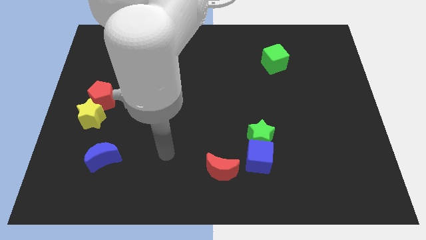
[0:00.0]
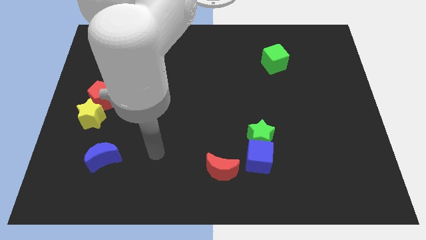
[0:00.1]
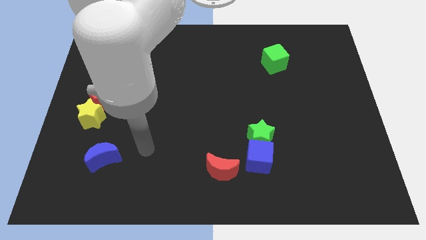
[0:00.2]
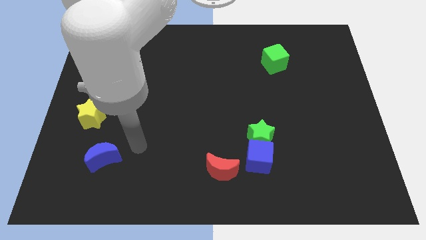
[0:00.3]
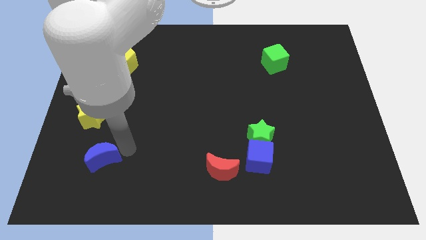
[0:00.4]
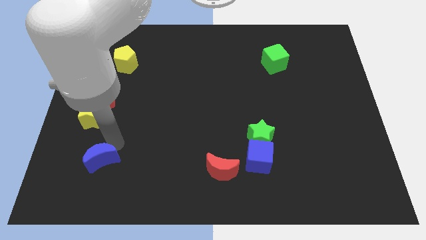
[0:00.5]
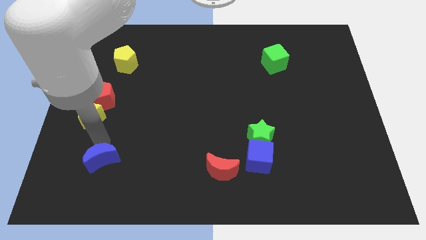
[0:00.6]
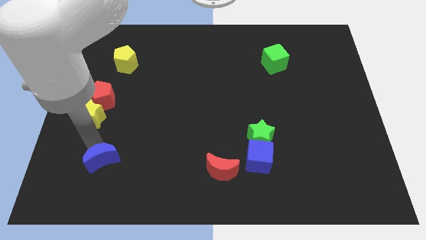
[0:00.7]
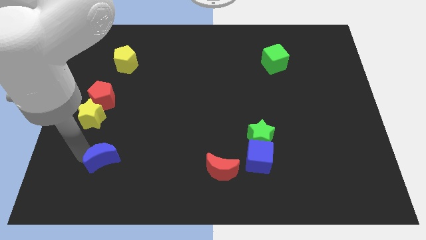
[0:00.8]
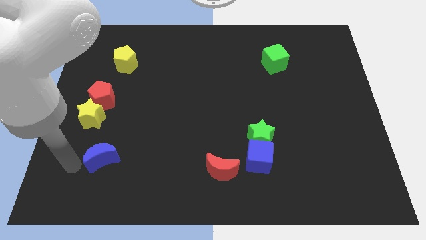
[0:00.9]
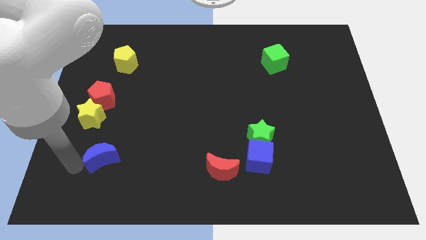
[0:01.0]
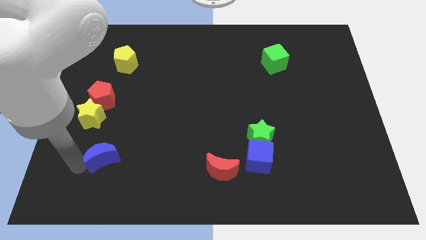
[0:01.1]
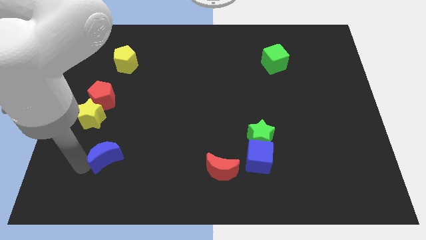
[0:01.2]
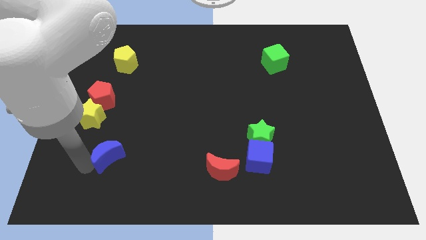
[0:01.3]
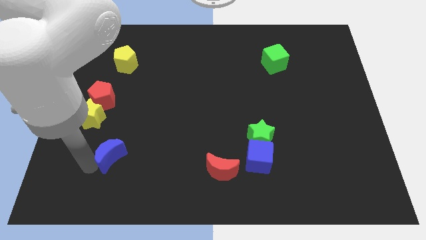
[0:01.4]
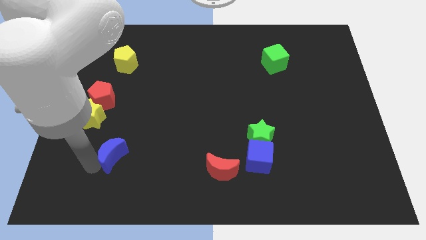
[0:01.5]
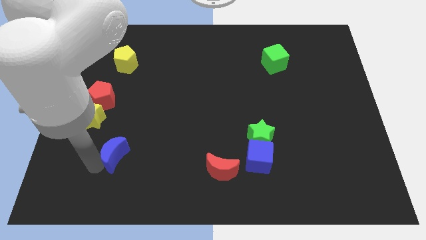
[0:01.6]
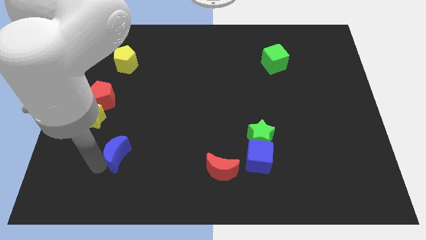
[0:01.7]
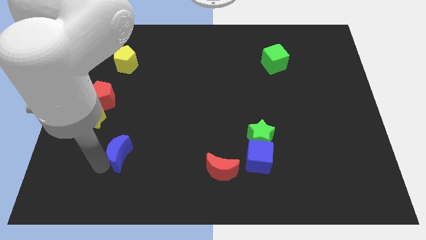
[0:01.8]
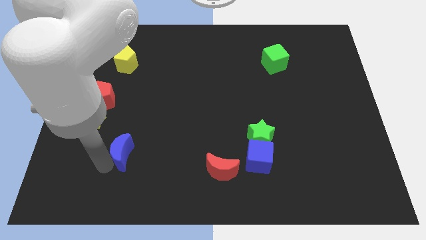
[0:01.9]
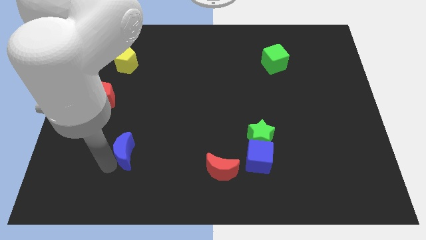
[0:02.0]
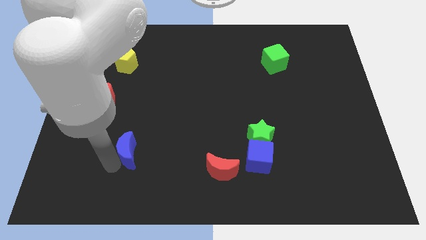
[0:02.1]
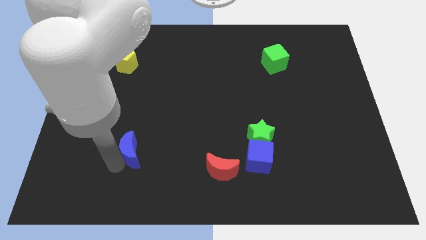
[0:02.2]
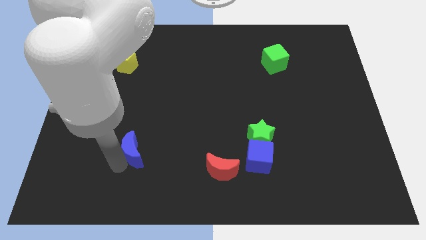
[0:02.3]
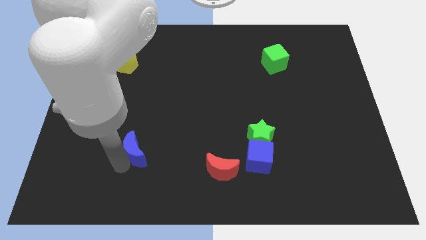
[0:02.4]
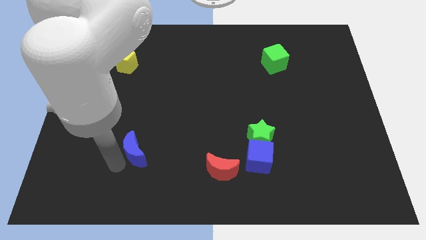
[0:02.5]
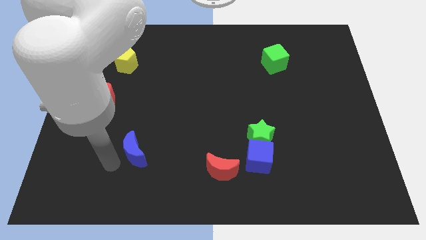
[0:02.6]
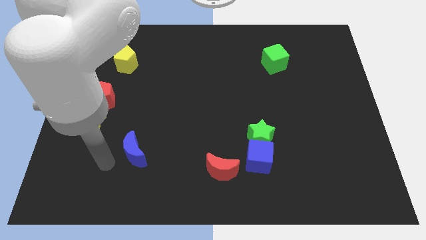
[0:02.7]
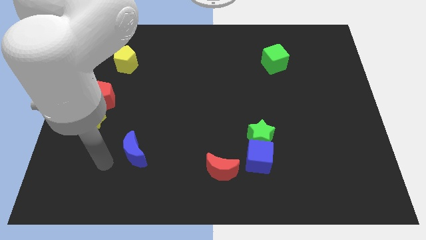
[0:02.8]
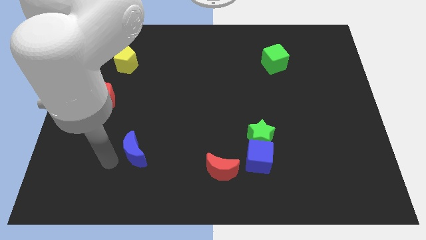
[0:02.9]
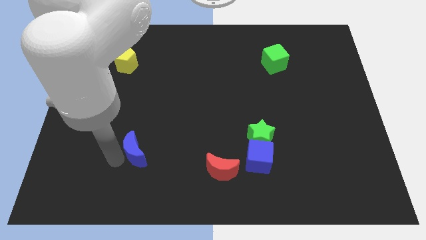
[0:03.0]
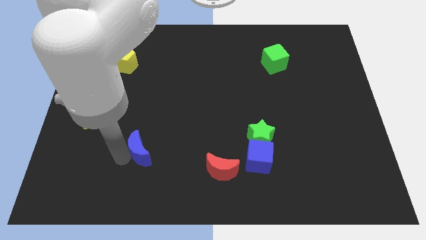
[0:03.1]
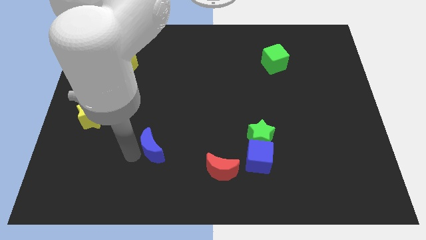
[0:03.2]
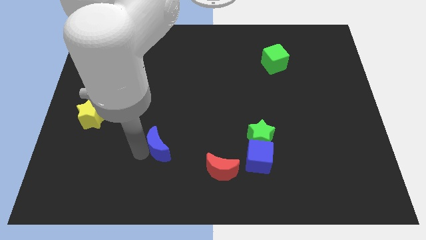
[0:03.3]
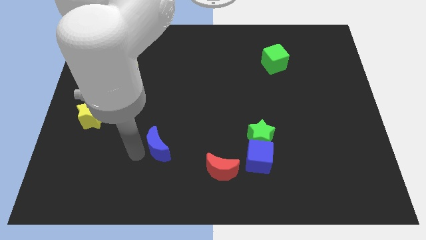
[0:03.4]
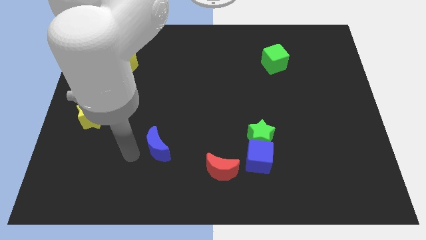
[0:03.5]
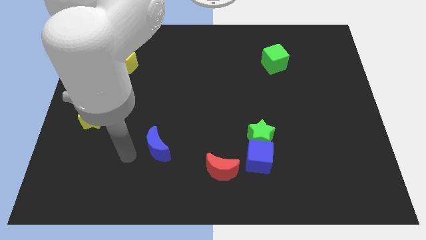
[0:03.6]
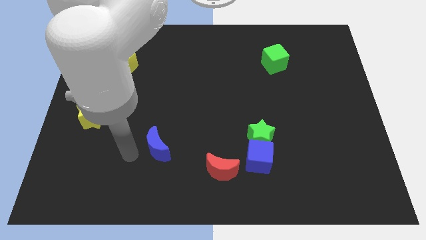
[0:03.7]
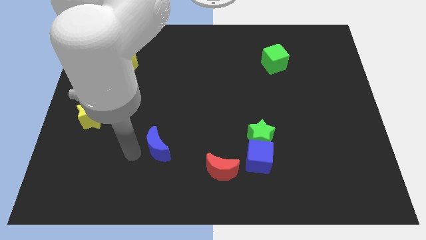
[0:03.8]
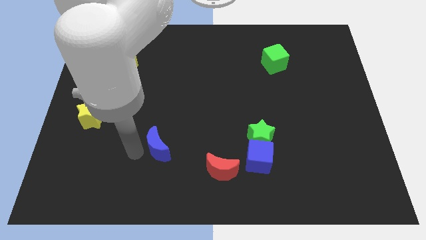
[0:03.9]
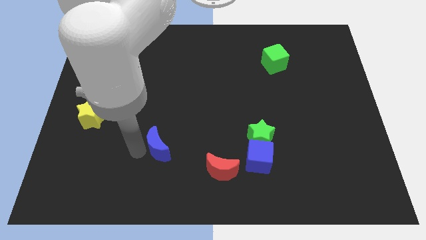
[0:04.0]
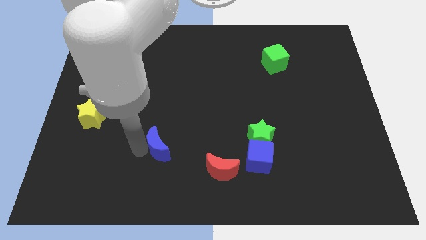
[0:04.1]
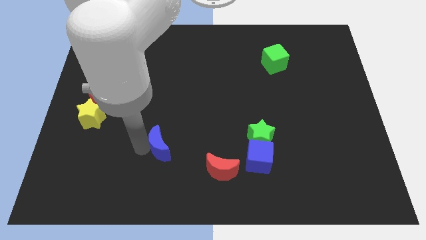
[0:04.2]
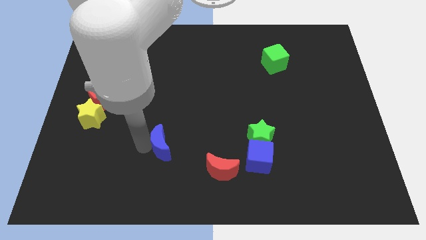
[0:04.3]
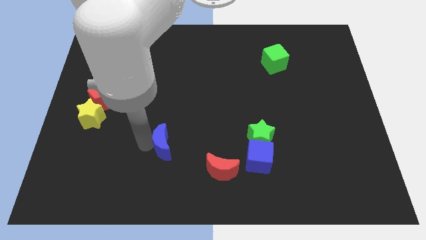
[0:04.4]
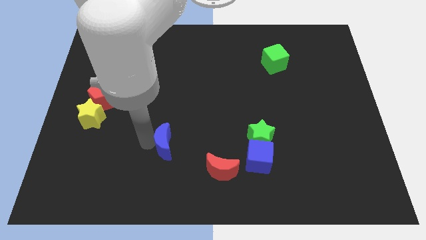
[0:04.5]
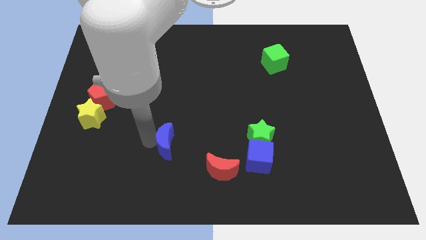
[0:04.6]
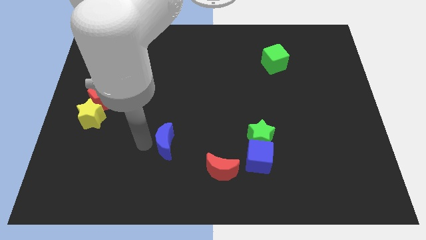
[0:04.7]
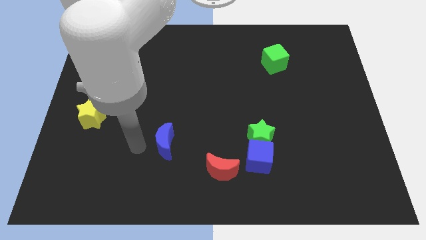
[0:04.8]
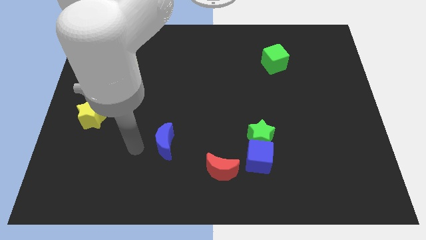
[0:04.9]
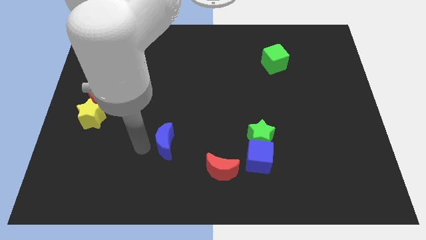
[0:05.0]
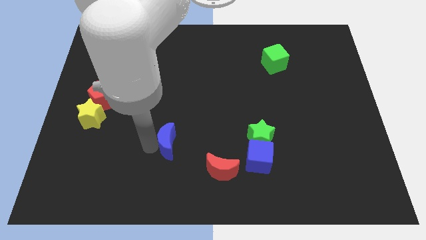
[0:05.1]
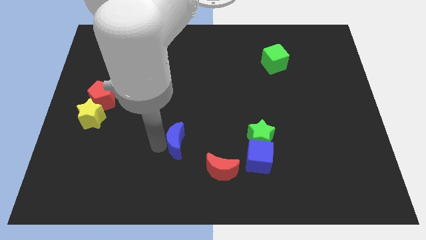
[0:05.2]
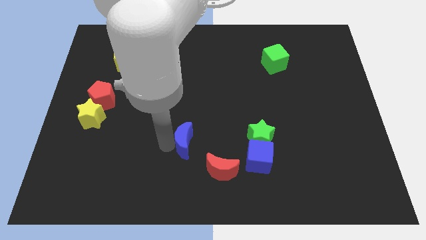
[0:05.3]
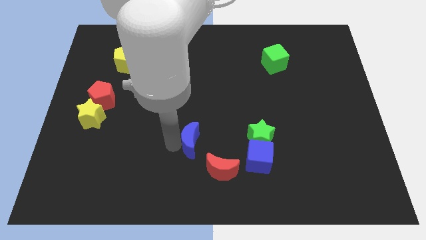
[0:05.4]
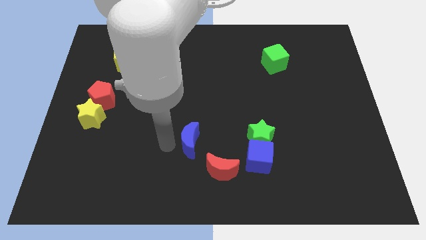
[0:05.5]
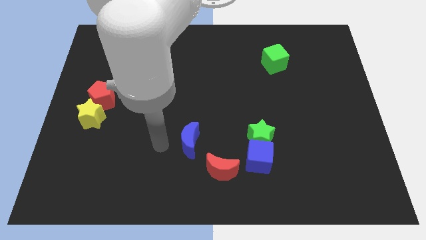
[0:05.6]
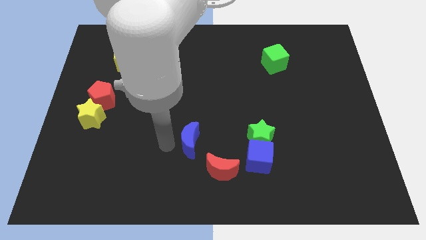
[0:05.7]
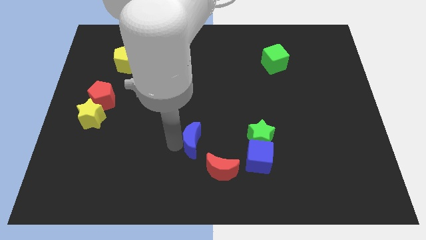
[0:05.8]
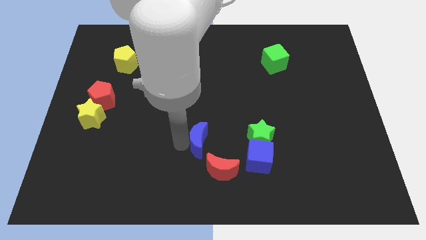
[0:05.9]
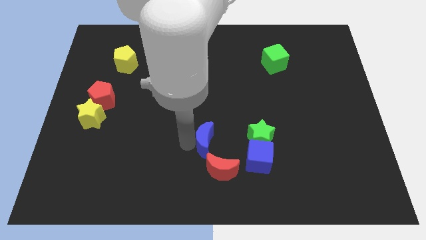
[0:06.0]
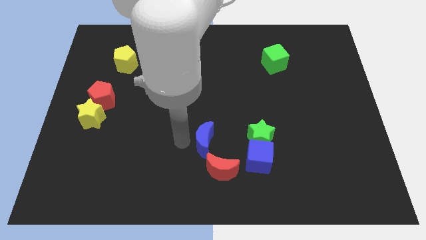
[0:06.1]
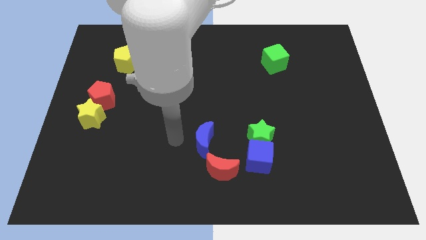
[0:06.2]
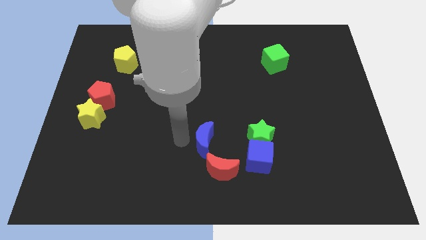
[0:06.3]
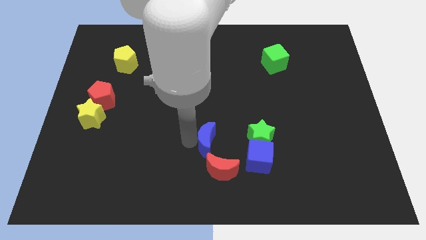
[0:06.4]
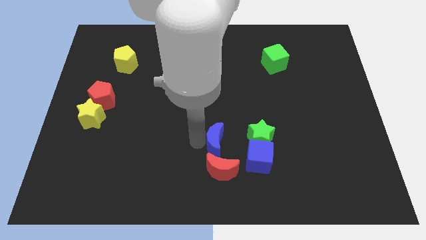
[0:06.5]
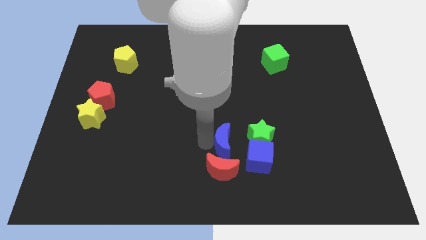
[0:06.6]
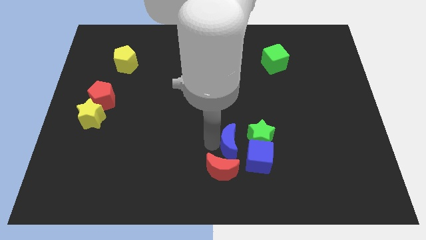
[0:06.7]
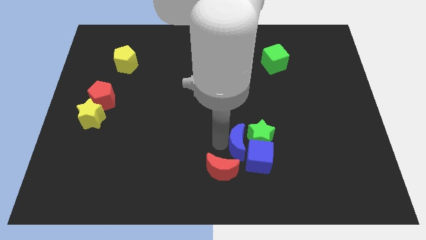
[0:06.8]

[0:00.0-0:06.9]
put the blue moon next to the blue cube

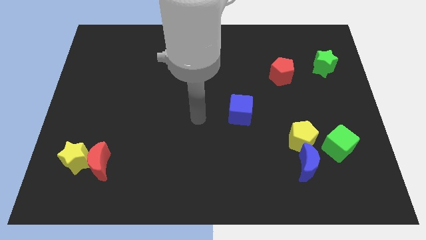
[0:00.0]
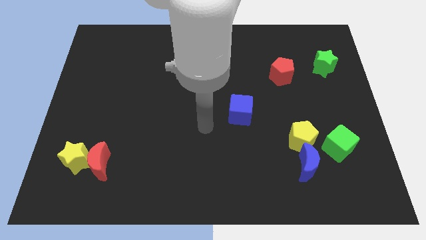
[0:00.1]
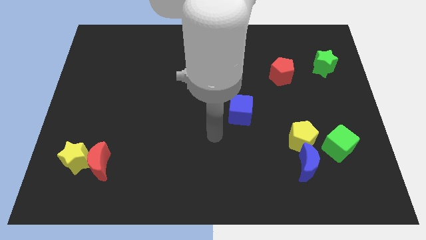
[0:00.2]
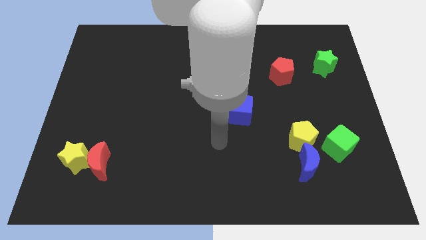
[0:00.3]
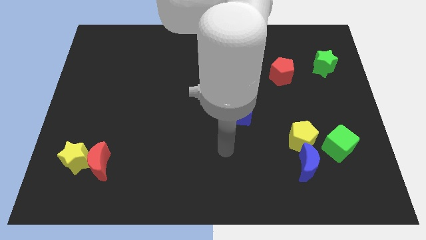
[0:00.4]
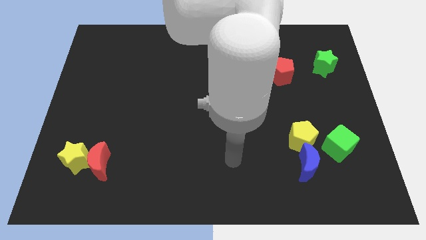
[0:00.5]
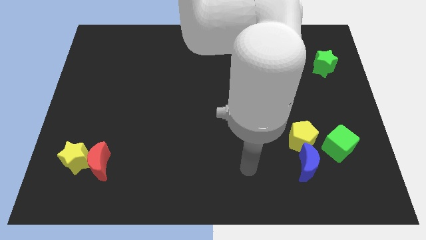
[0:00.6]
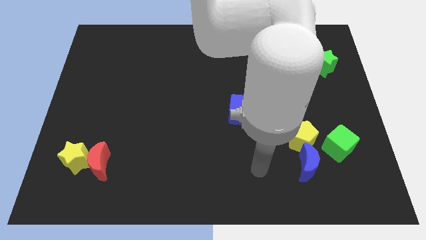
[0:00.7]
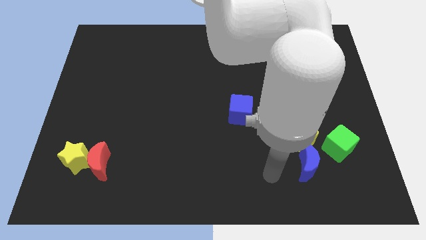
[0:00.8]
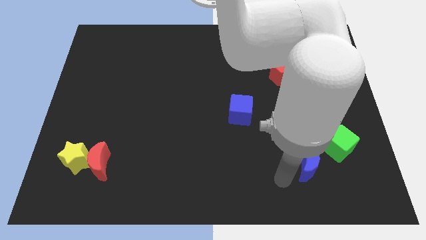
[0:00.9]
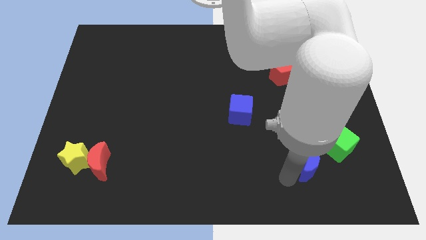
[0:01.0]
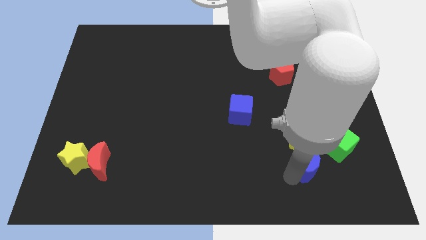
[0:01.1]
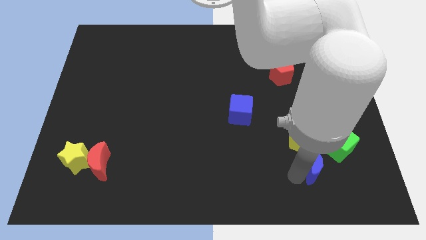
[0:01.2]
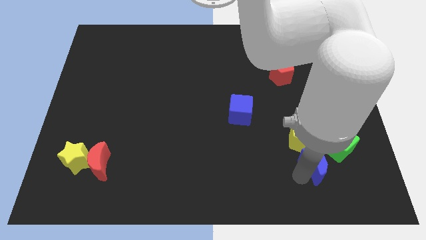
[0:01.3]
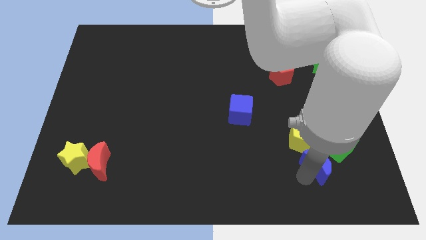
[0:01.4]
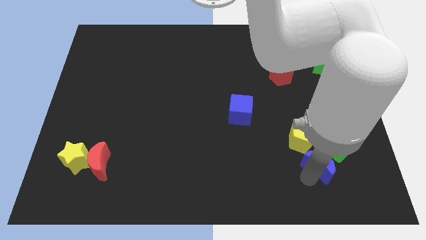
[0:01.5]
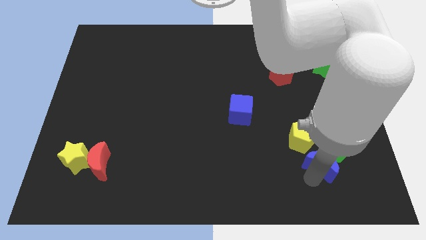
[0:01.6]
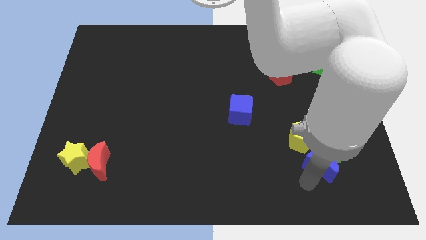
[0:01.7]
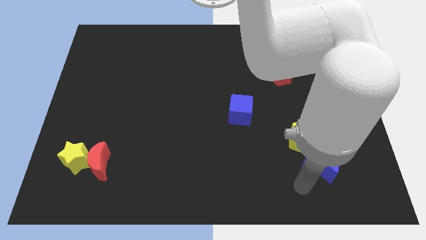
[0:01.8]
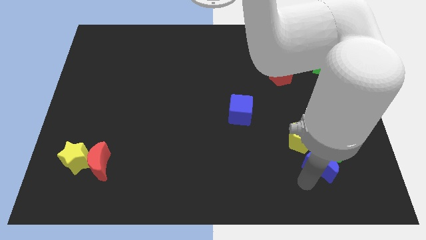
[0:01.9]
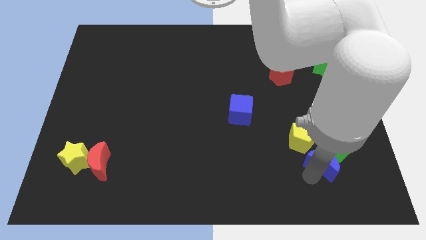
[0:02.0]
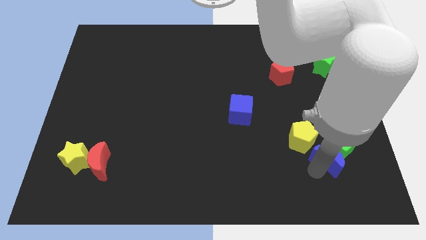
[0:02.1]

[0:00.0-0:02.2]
push the blue moon close to the green cube
